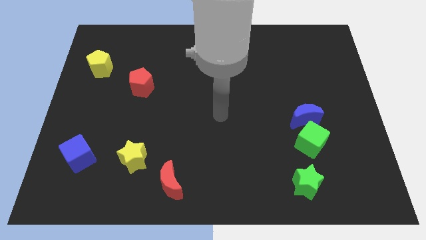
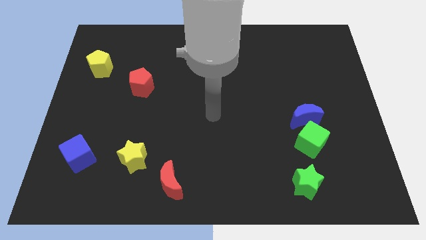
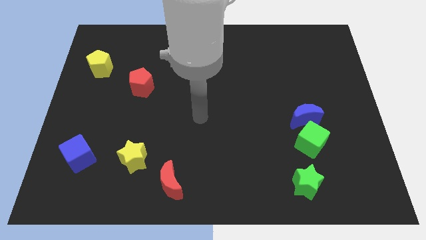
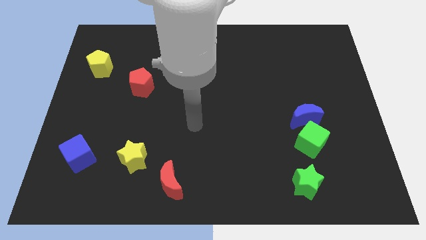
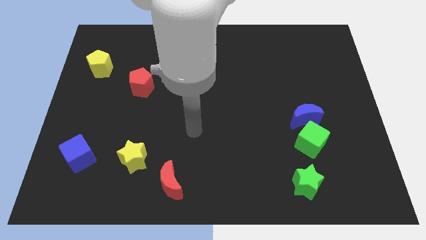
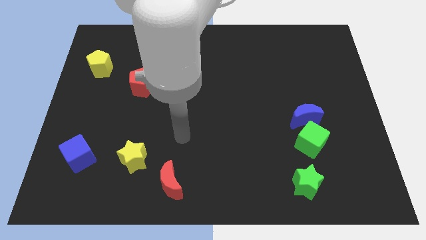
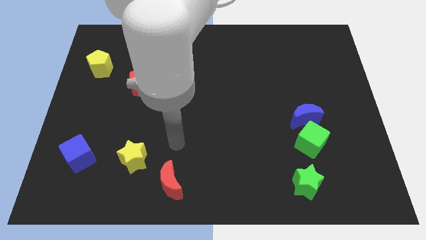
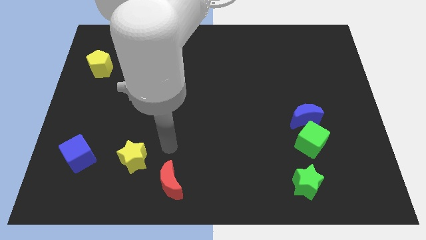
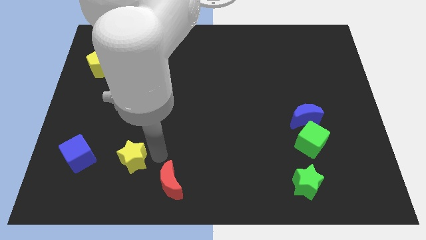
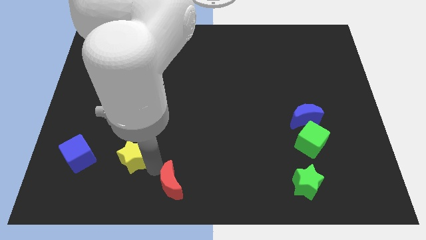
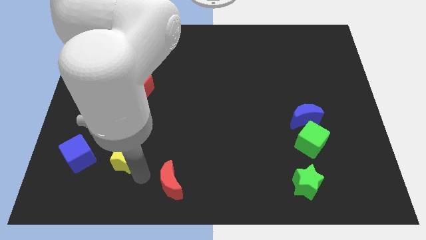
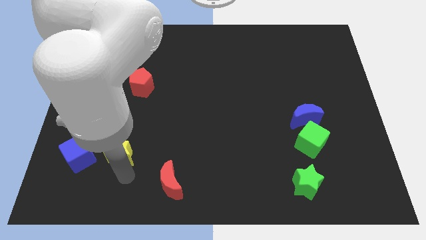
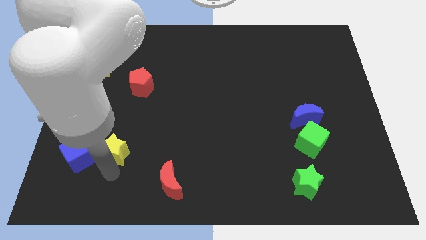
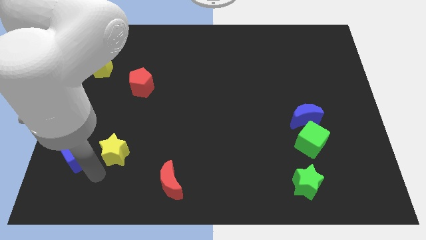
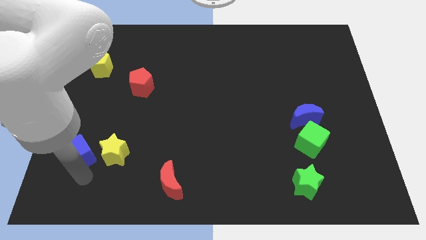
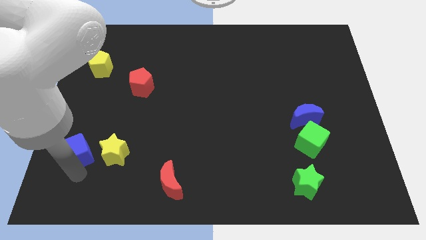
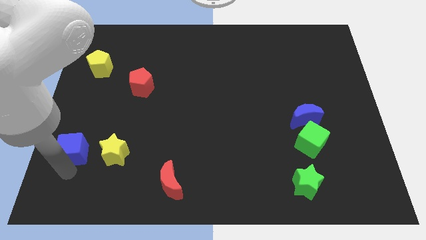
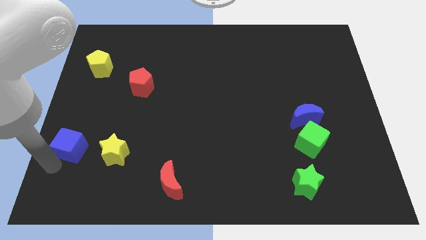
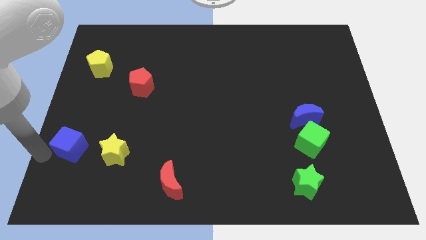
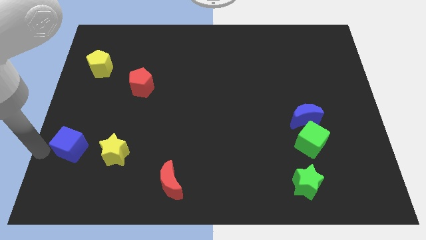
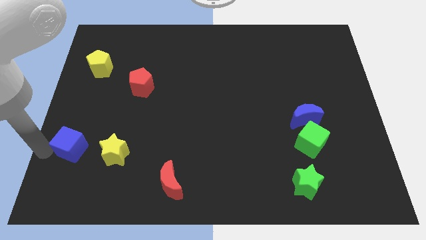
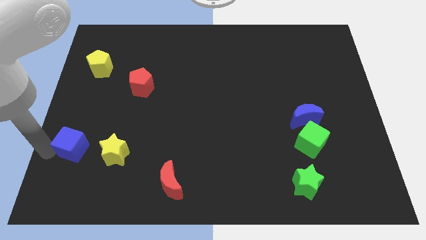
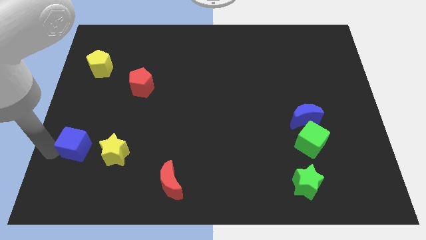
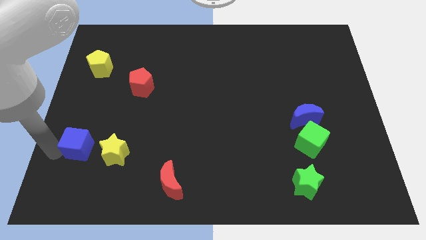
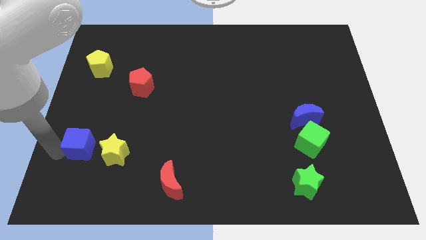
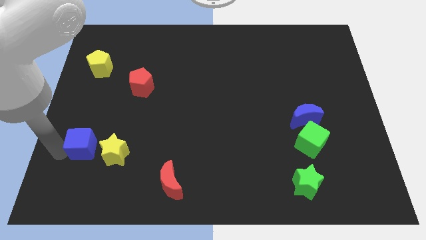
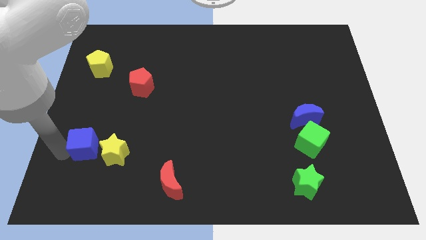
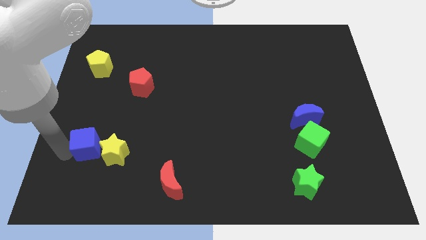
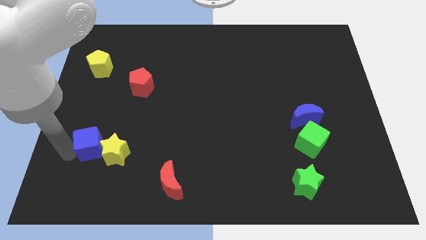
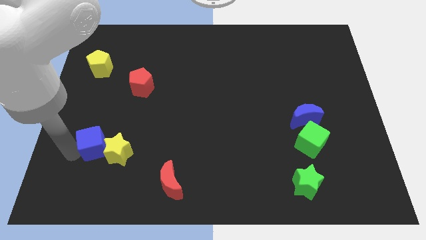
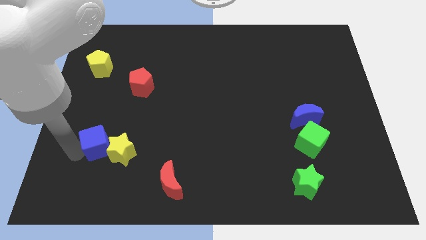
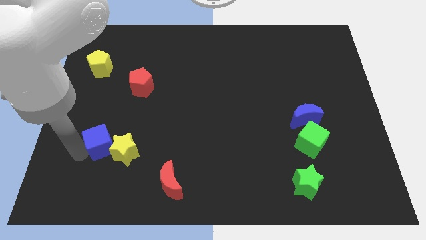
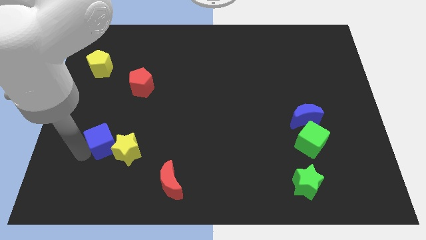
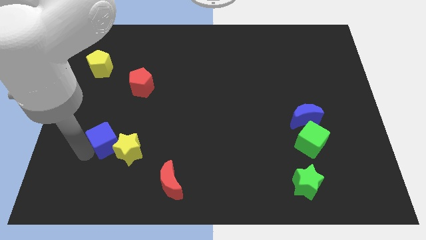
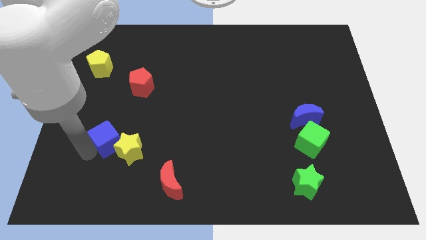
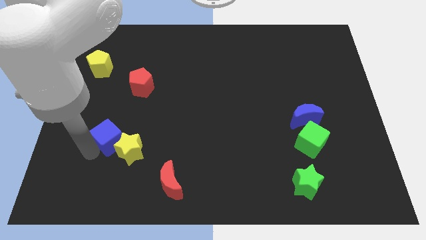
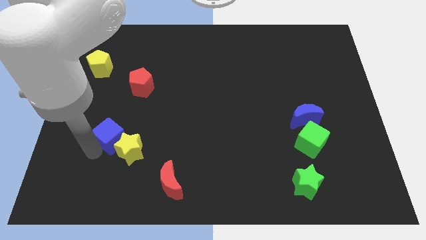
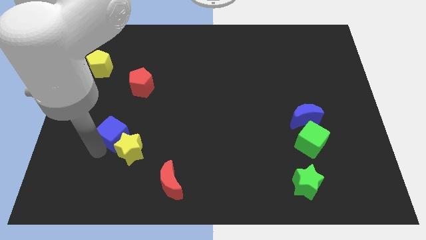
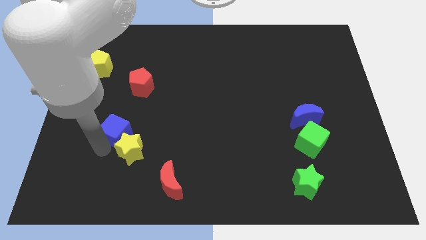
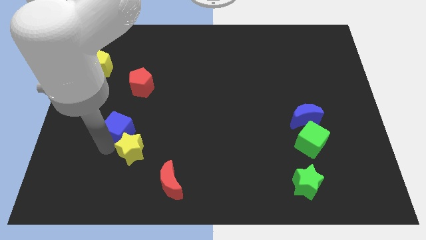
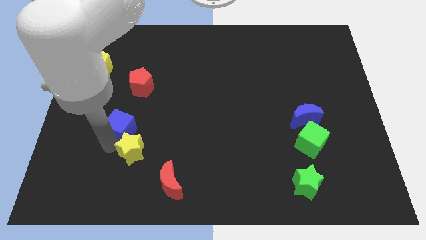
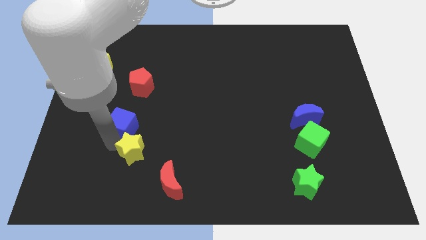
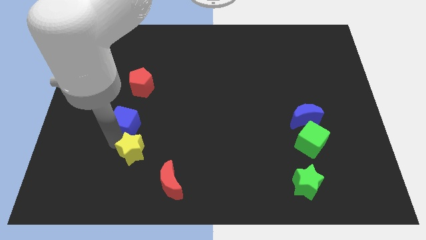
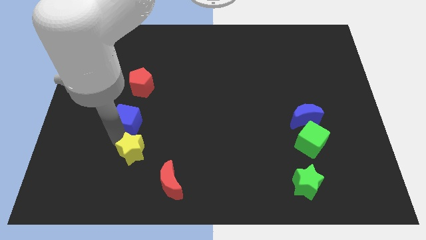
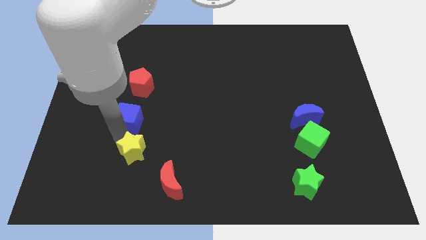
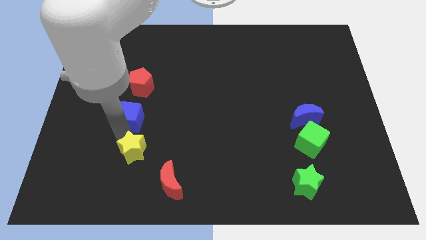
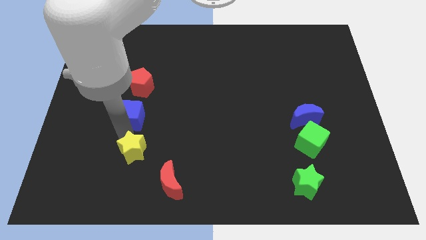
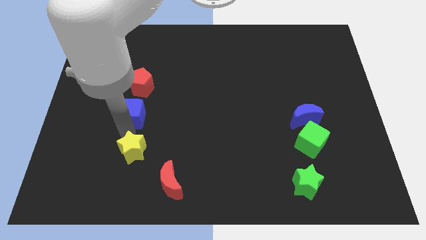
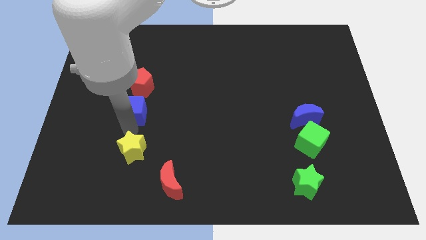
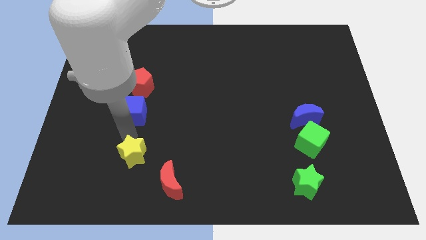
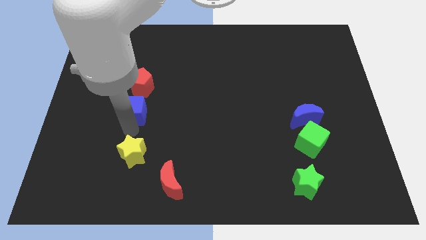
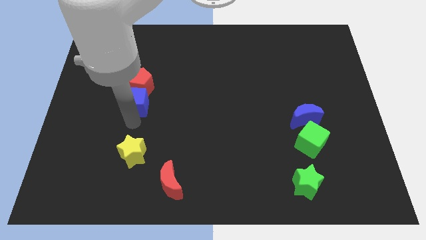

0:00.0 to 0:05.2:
move the blue cube close to the red pentagon

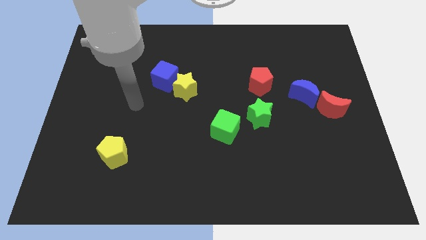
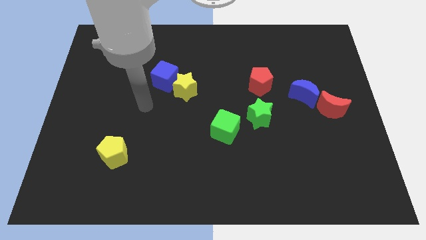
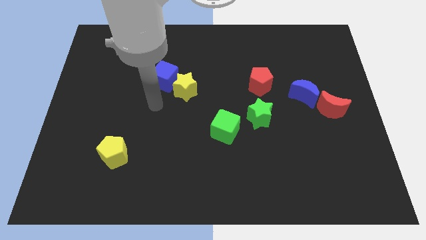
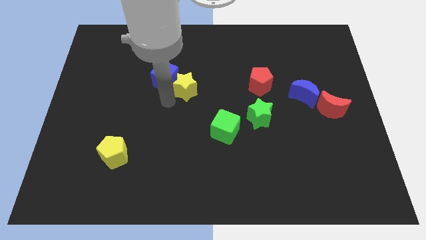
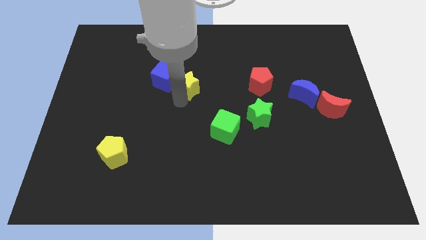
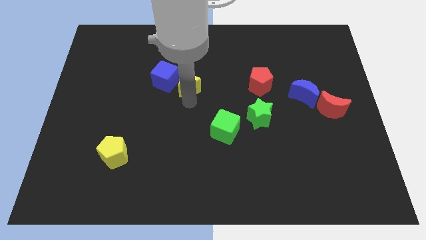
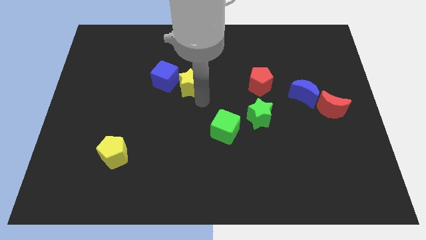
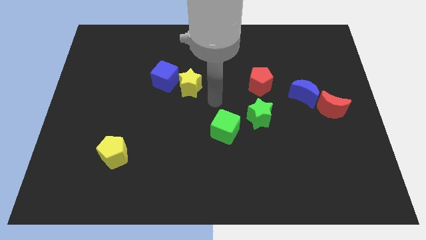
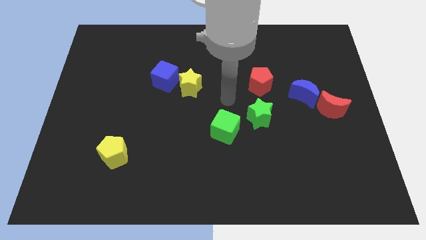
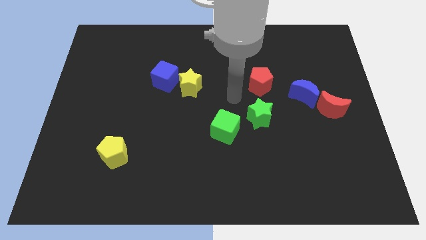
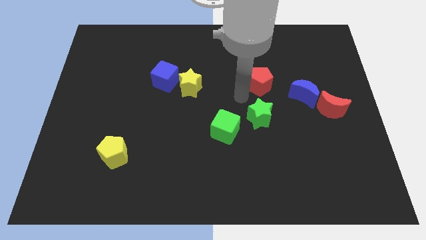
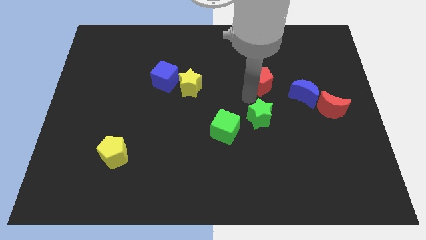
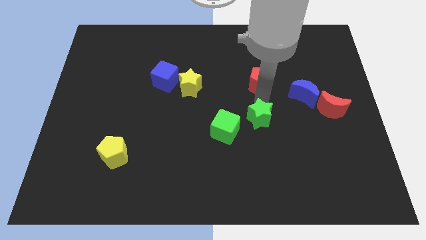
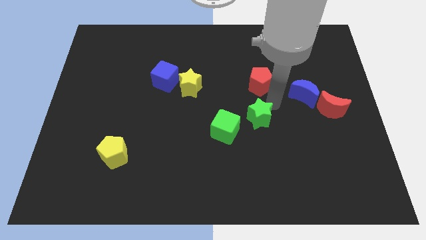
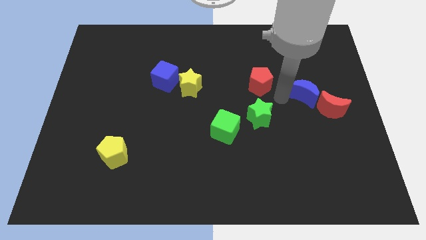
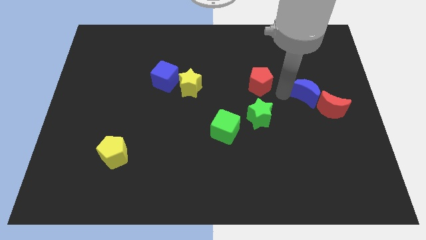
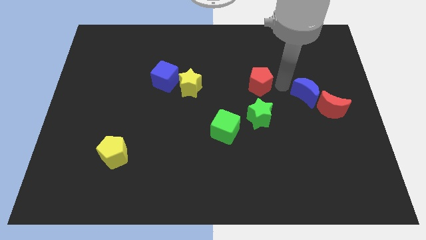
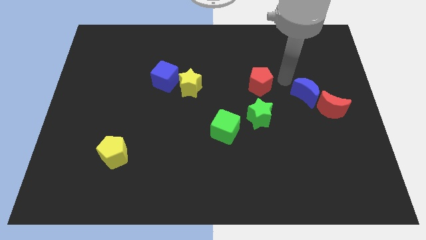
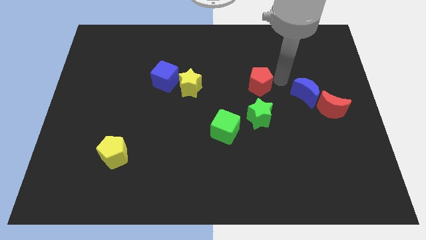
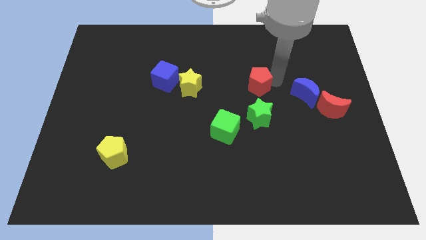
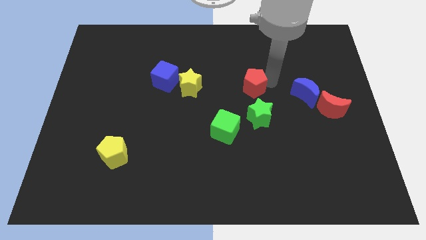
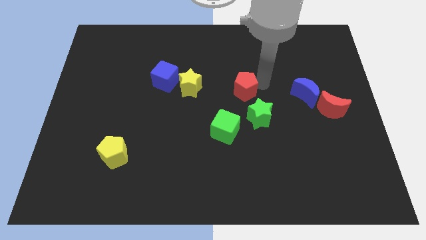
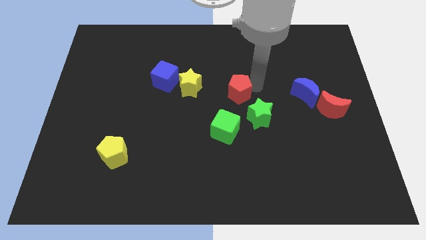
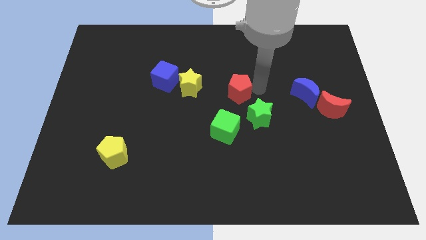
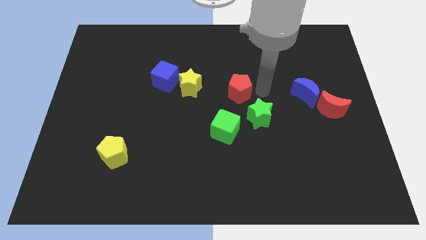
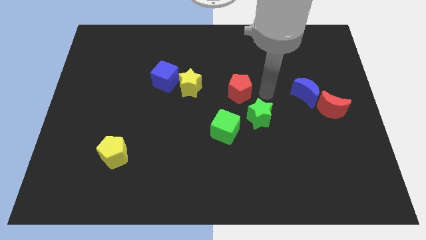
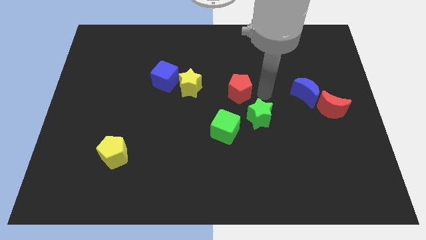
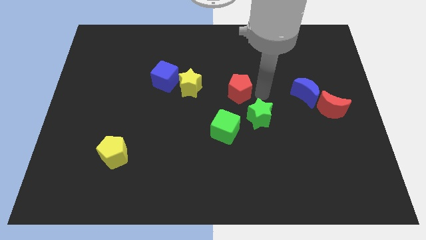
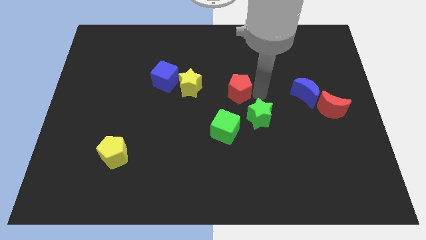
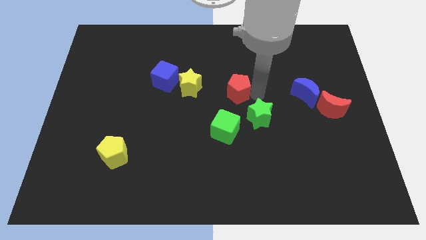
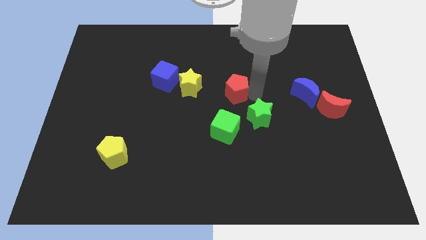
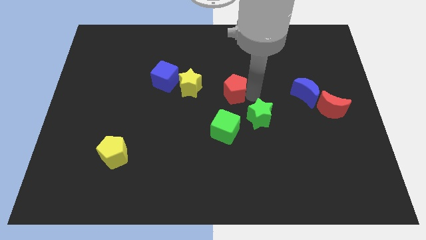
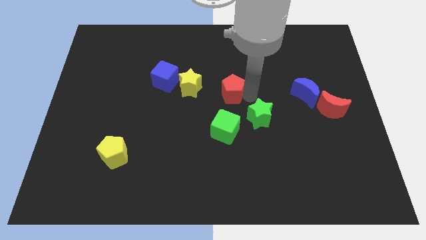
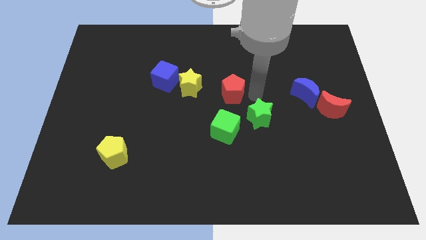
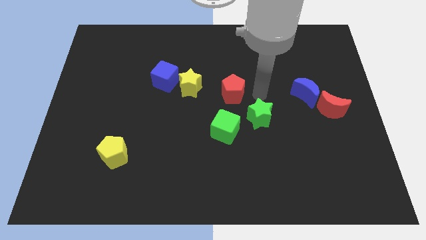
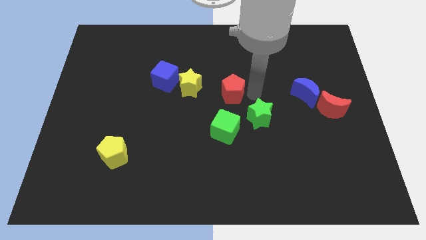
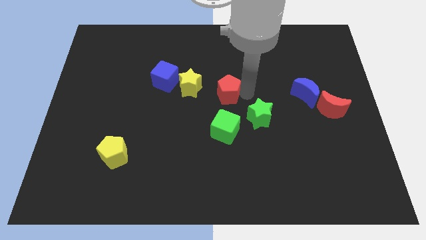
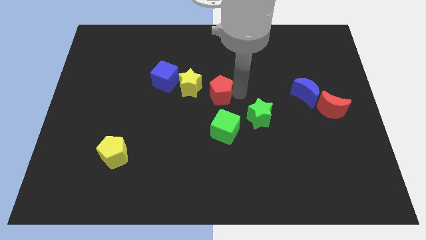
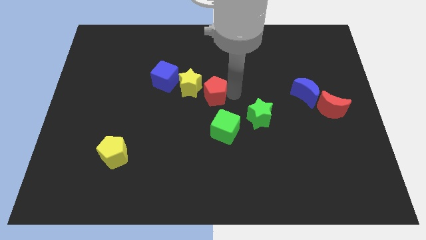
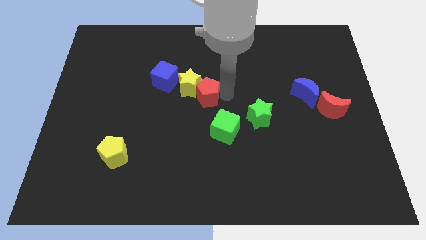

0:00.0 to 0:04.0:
move the red pentagon towards the yellow star
